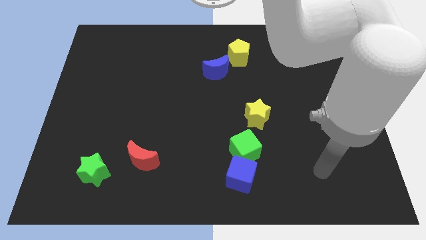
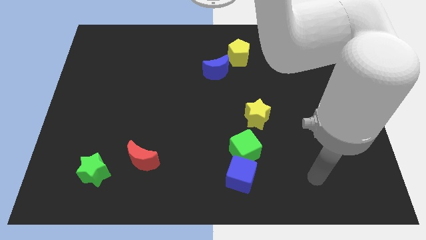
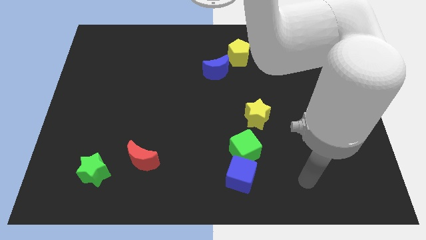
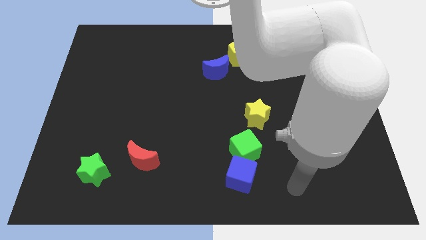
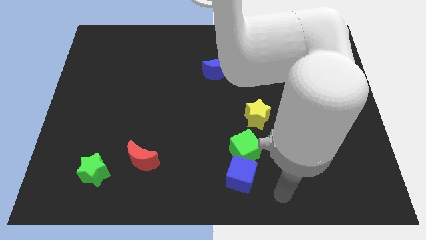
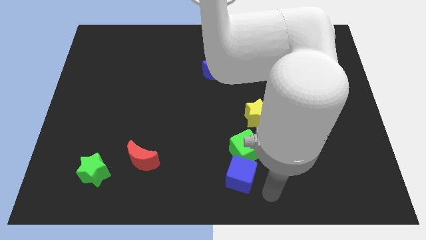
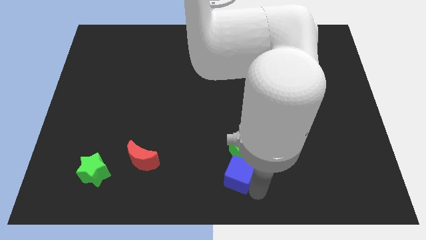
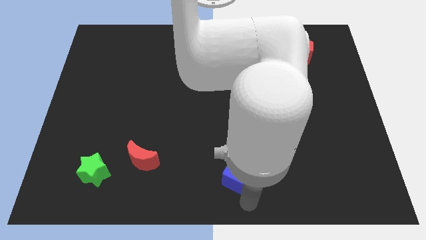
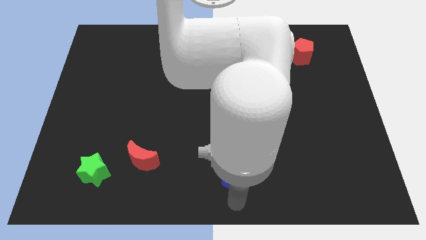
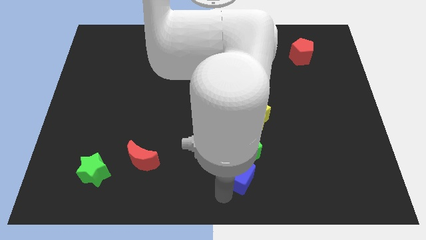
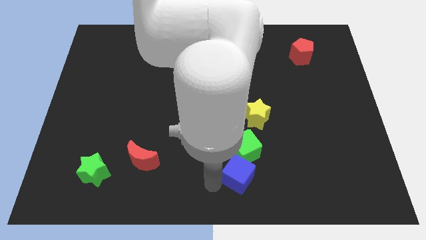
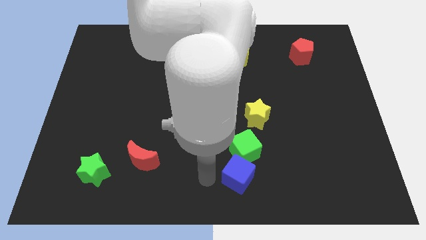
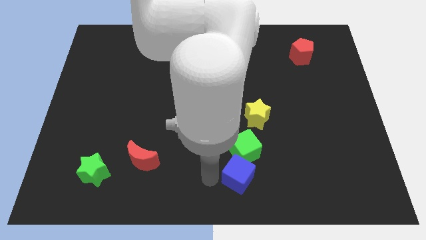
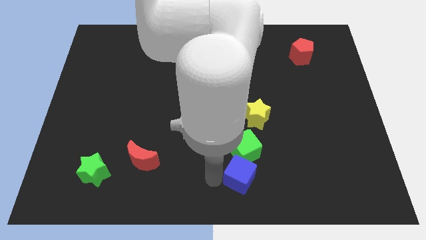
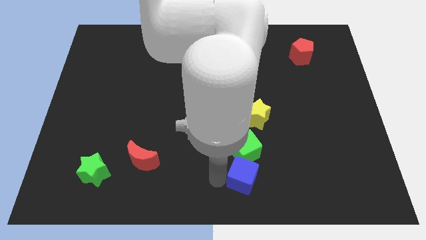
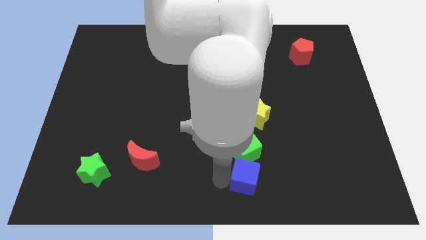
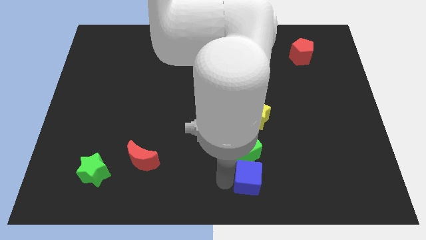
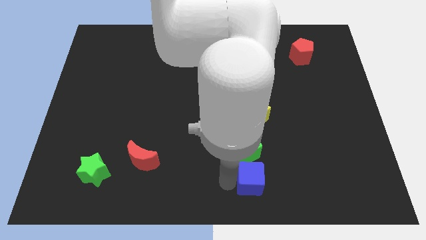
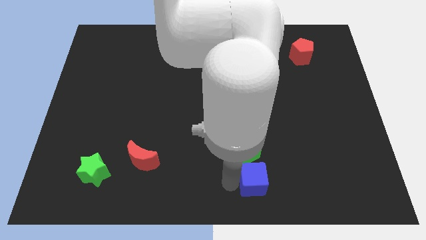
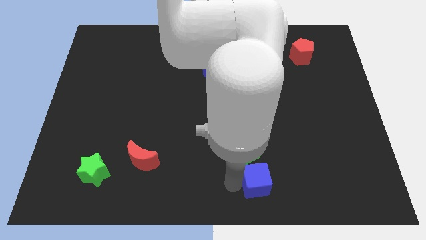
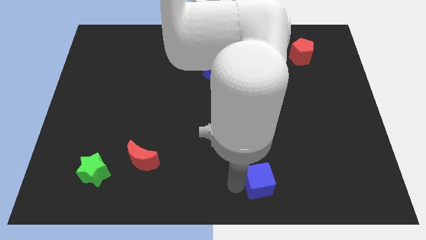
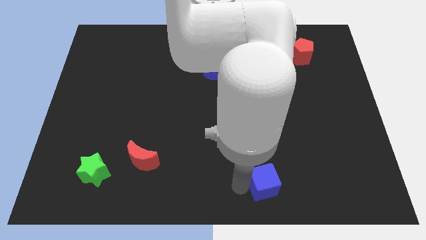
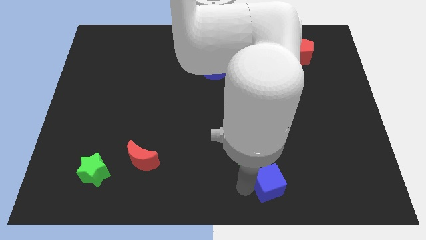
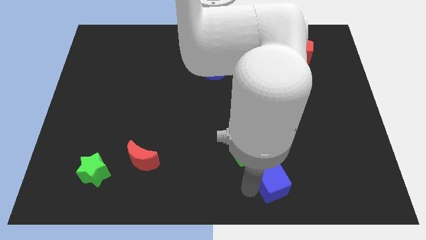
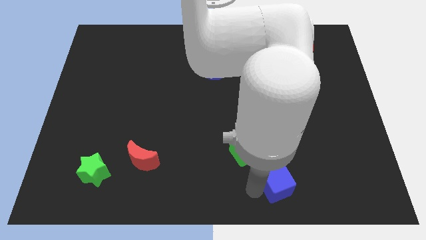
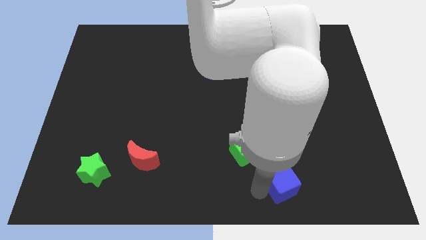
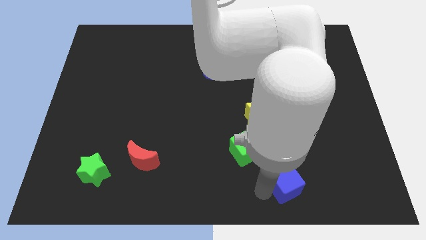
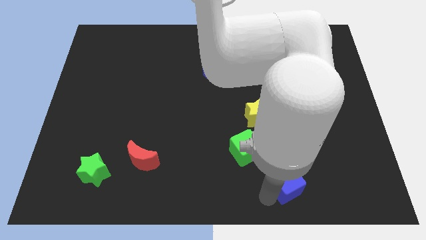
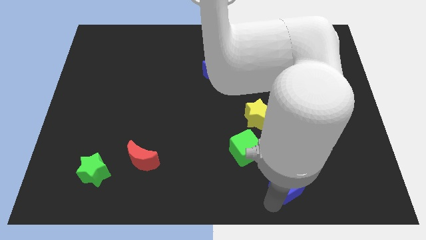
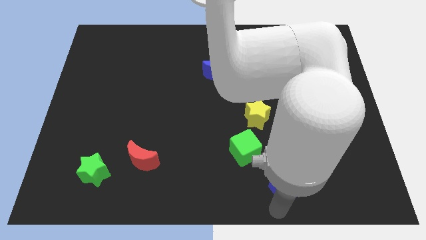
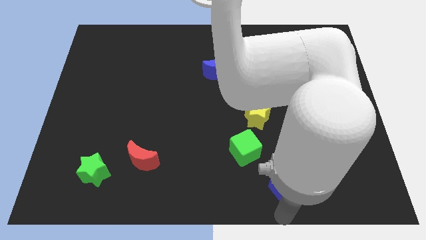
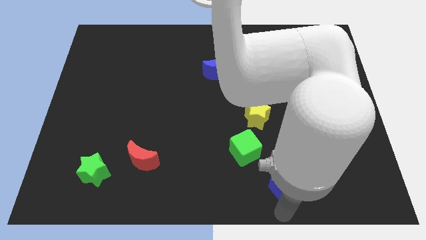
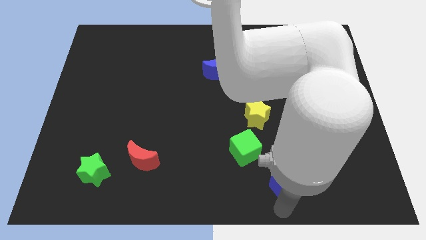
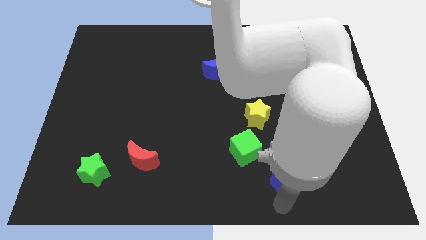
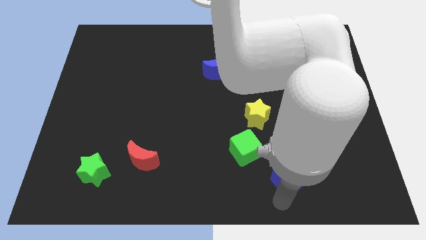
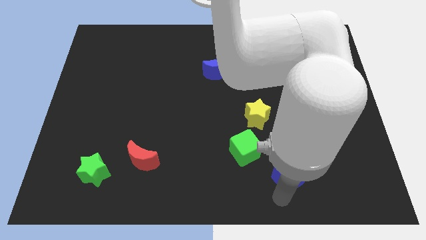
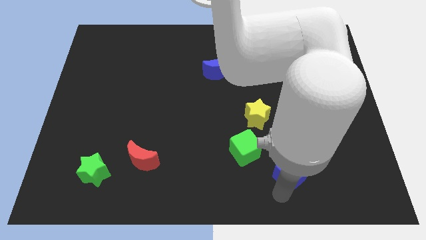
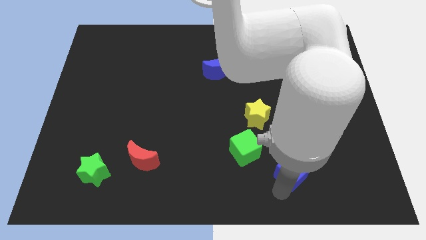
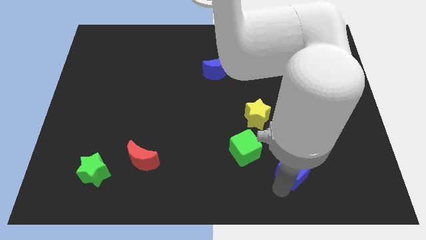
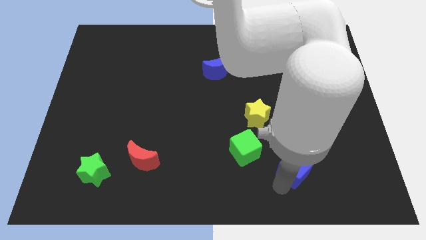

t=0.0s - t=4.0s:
push the blue cube slightly upwards and to the right

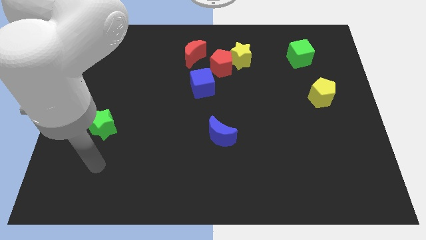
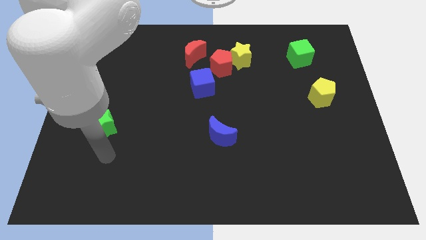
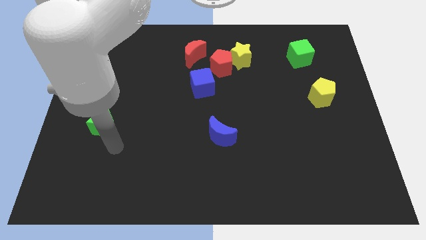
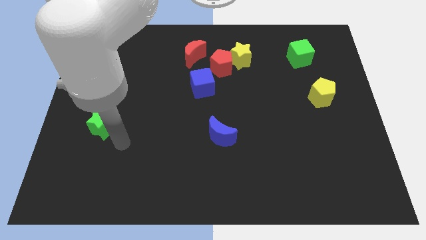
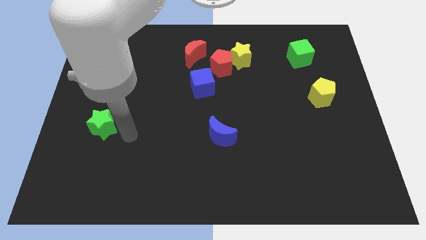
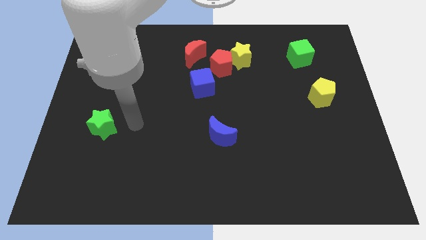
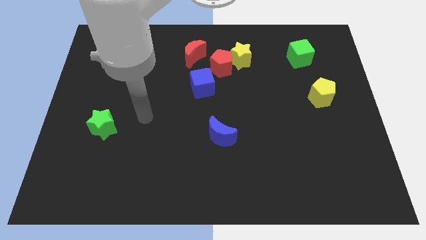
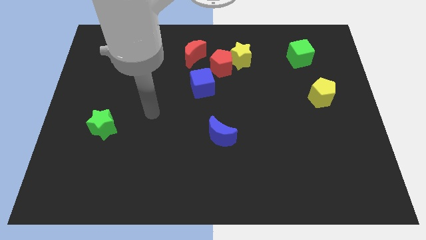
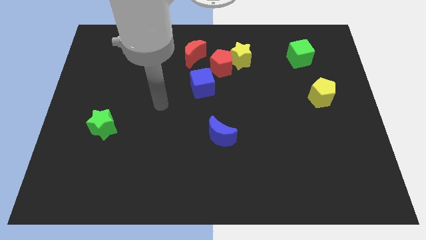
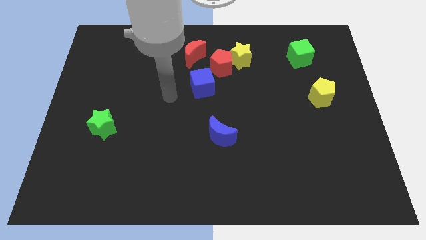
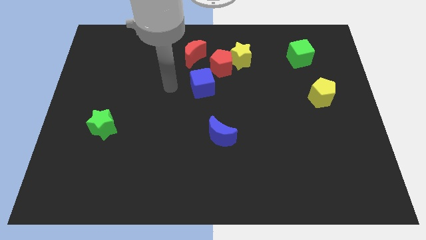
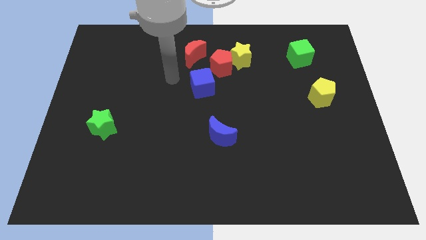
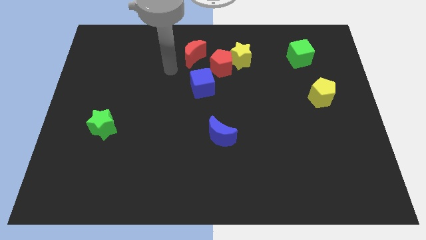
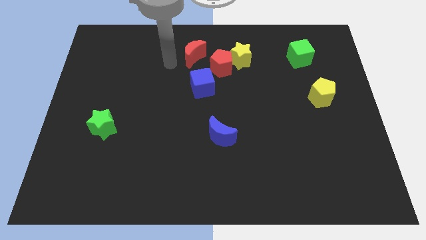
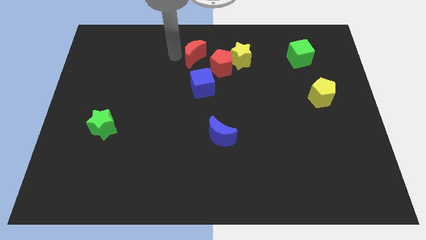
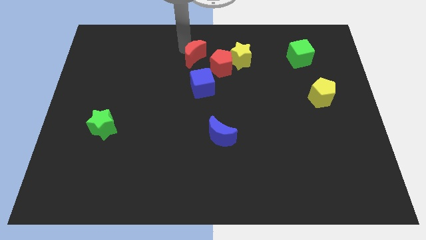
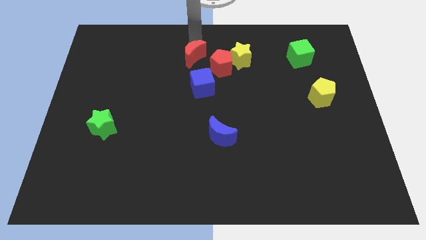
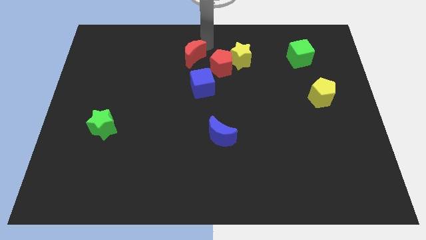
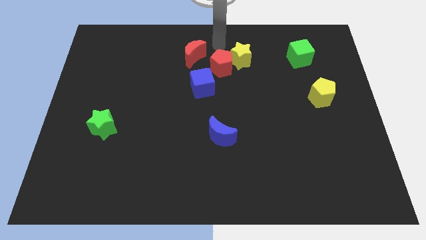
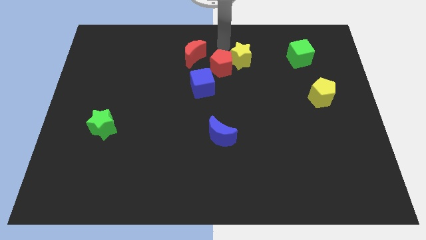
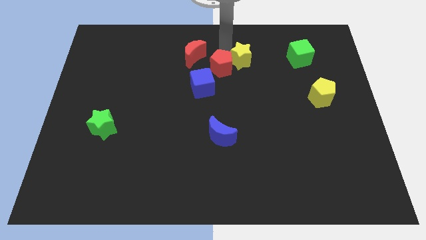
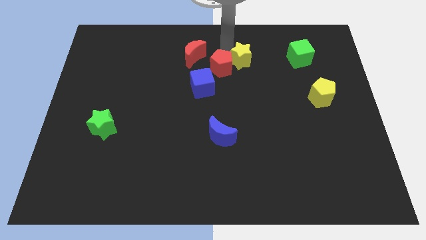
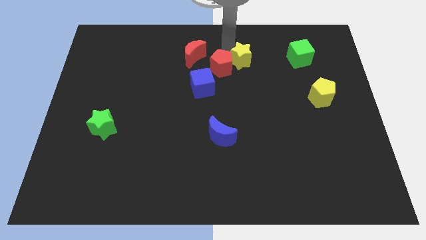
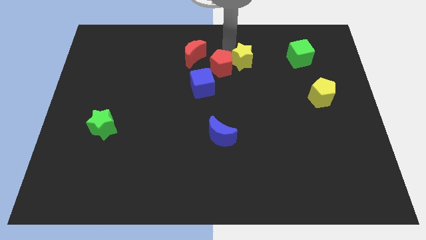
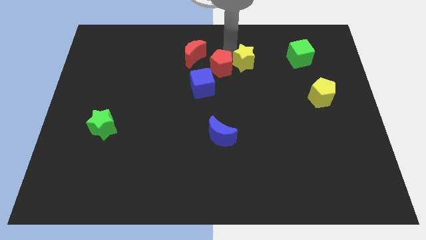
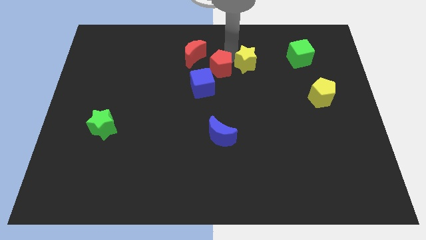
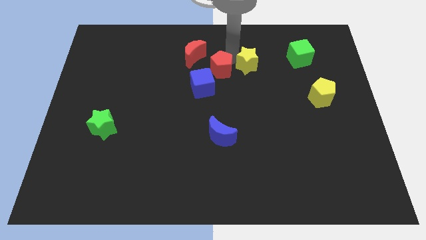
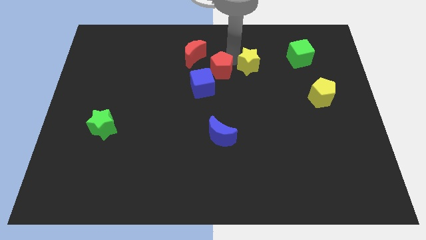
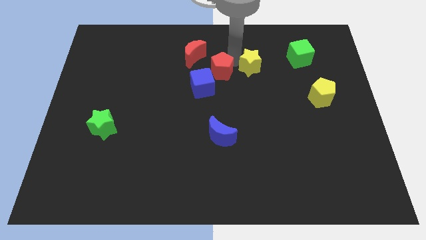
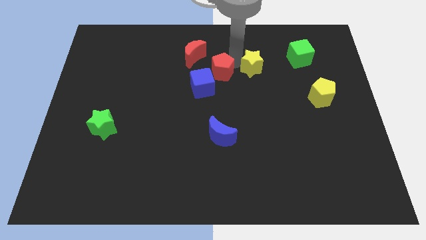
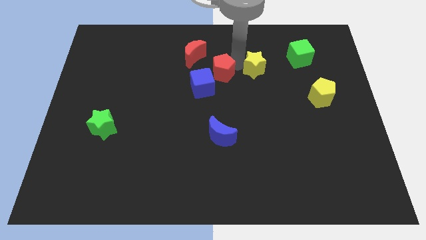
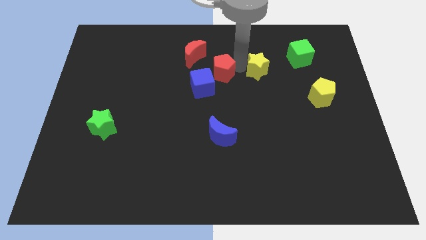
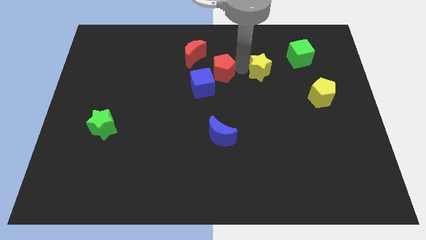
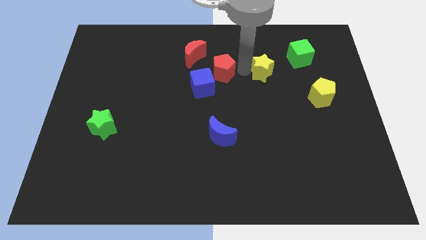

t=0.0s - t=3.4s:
move the yellow star down and then right a little

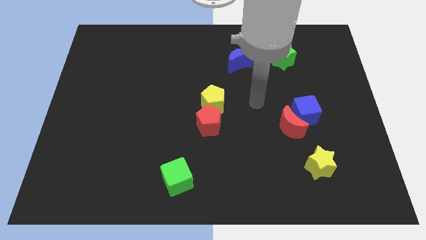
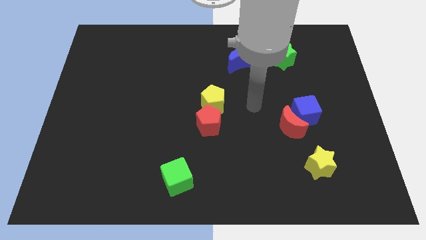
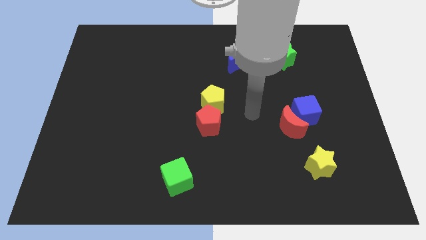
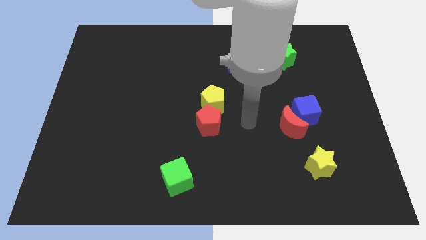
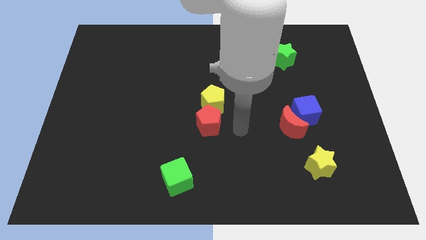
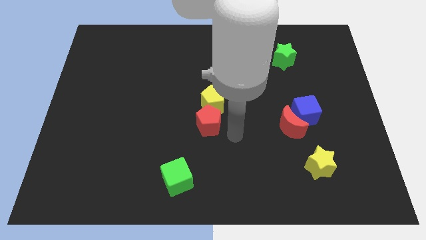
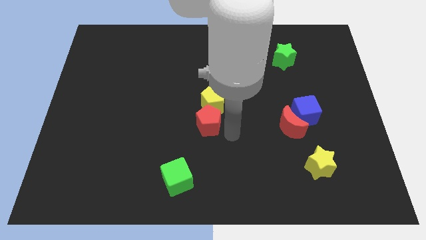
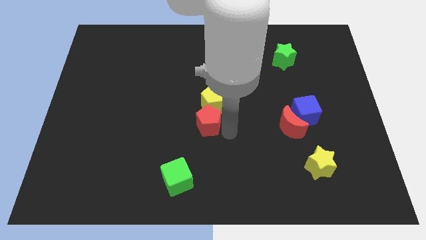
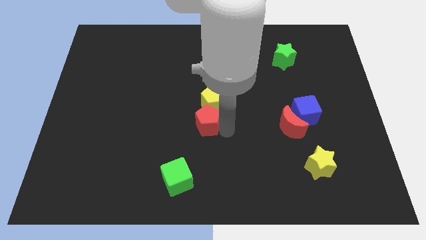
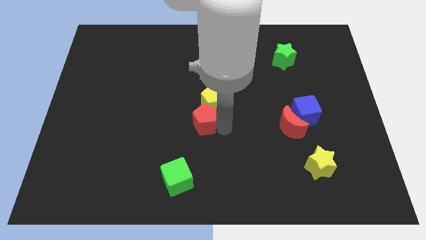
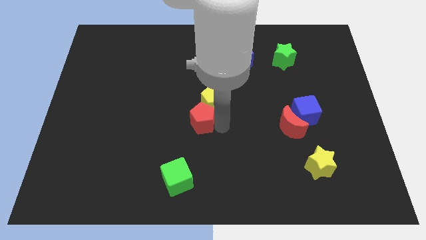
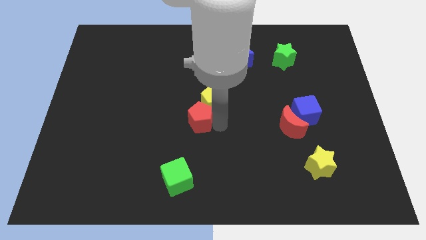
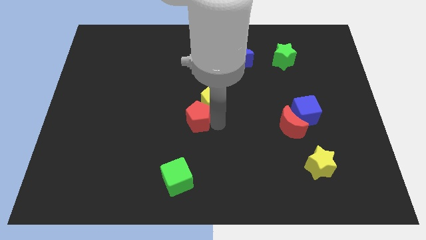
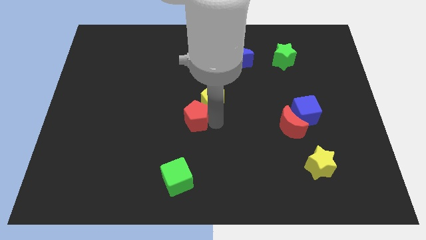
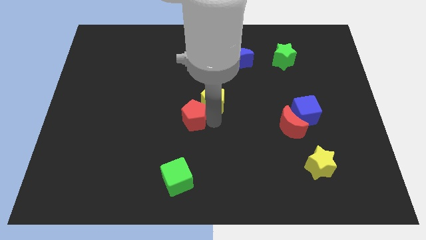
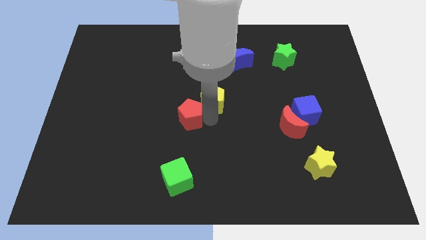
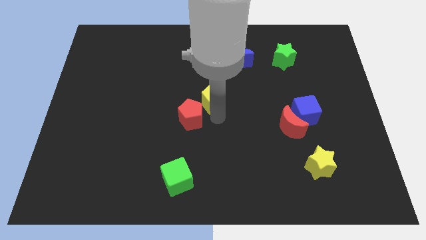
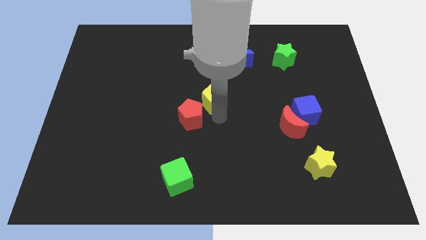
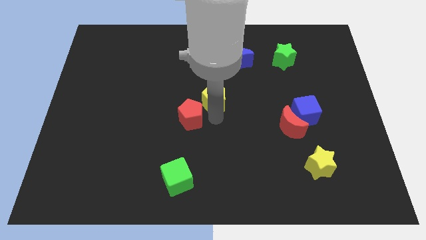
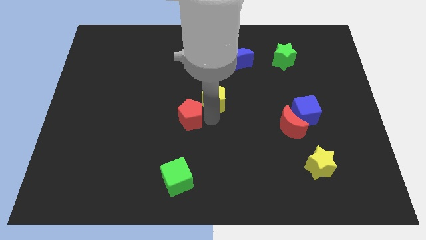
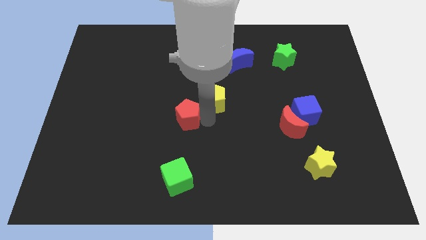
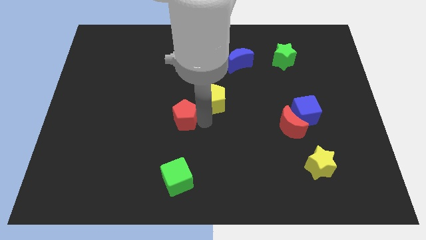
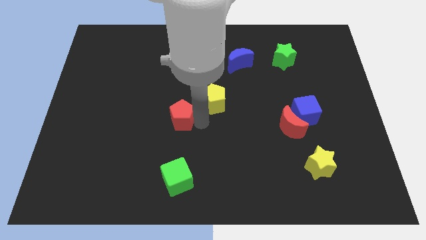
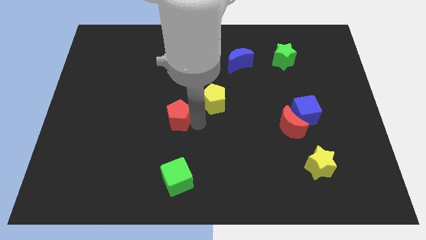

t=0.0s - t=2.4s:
push the red pentagon left slightly
